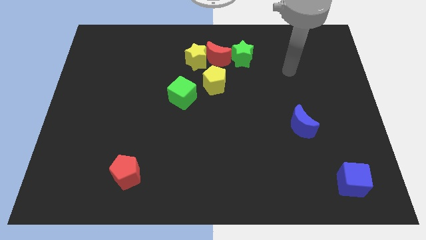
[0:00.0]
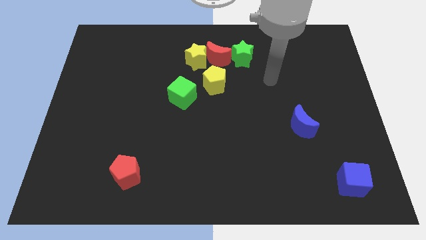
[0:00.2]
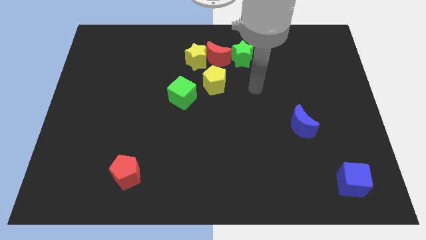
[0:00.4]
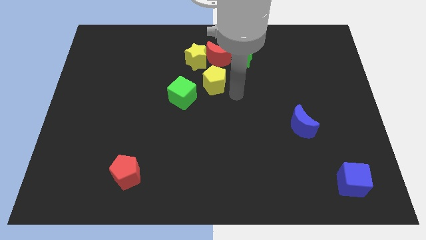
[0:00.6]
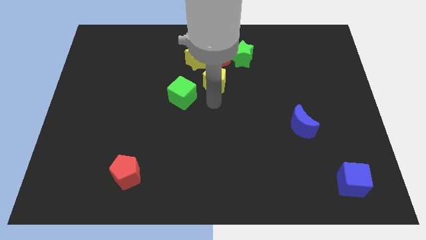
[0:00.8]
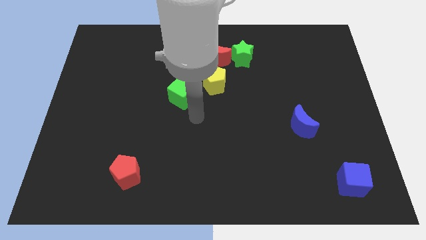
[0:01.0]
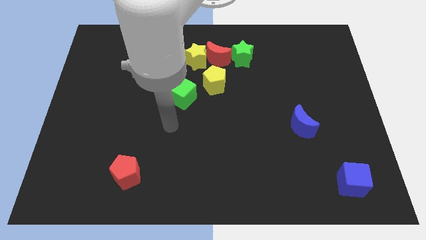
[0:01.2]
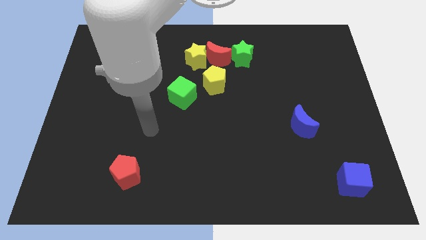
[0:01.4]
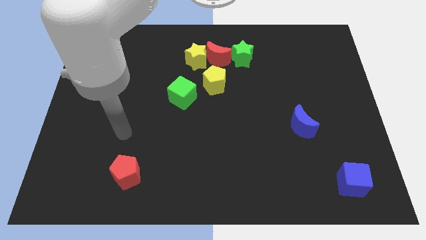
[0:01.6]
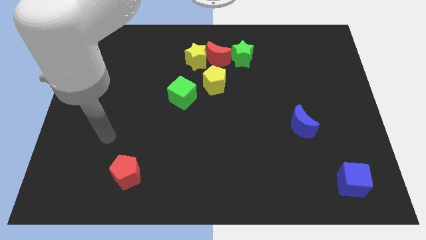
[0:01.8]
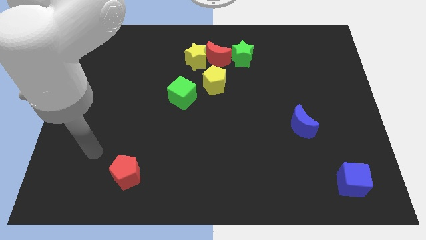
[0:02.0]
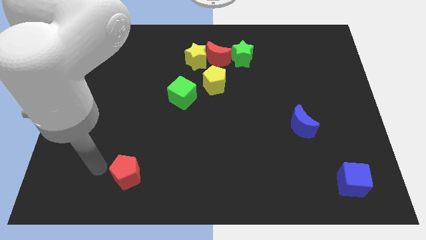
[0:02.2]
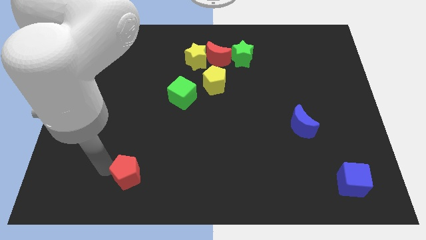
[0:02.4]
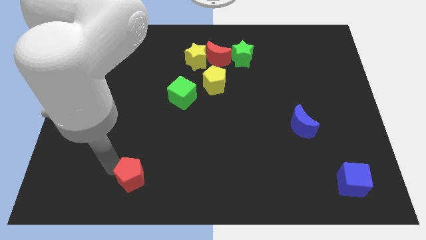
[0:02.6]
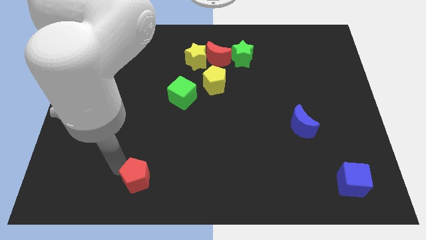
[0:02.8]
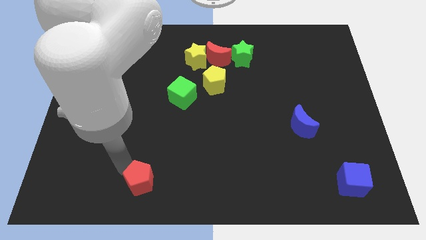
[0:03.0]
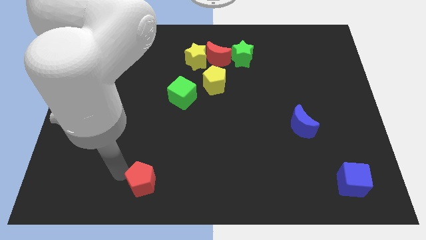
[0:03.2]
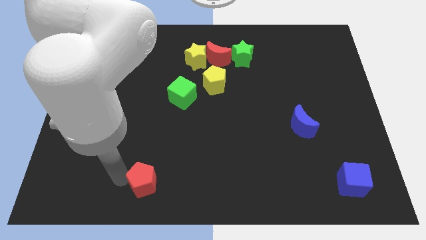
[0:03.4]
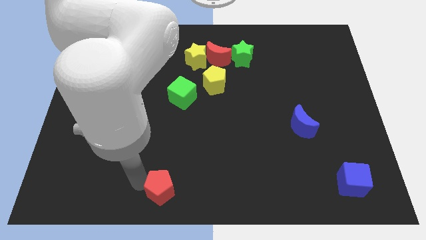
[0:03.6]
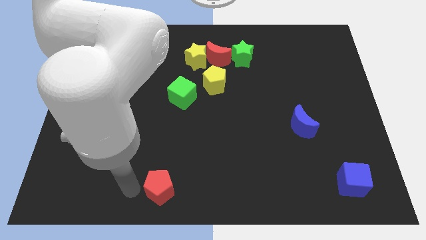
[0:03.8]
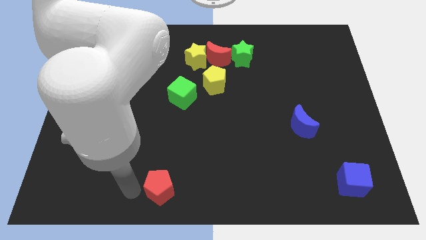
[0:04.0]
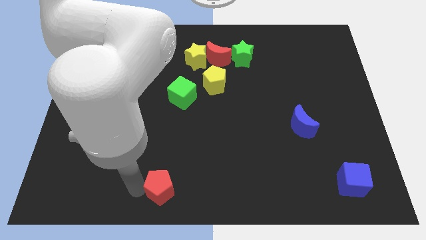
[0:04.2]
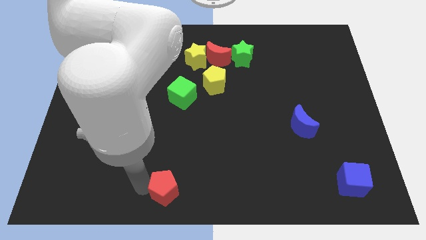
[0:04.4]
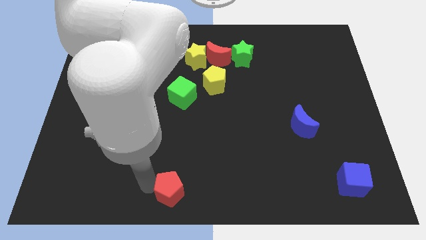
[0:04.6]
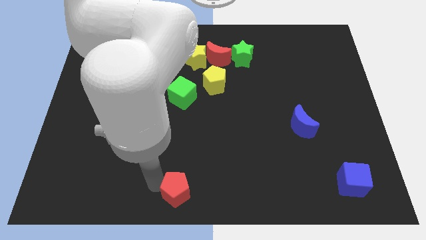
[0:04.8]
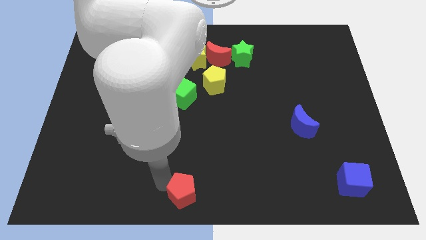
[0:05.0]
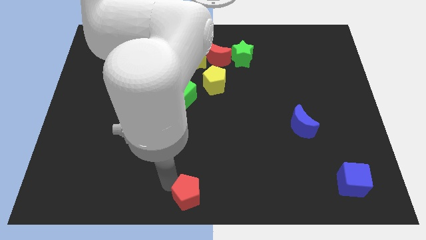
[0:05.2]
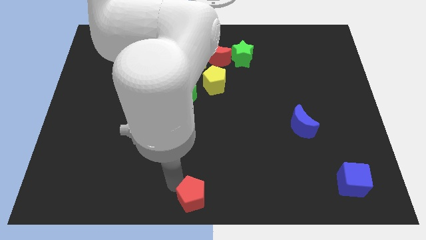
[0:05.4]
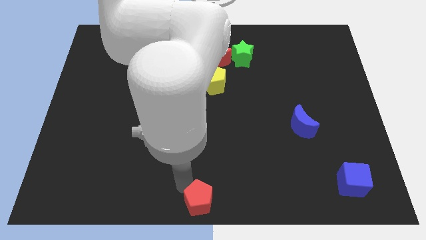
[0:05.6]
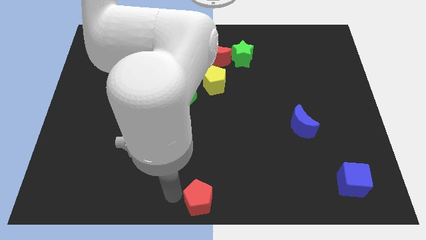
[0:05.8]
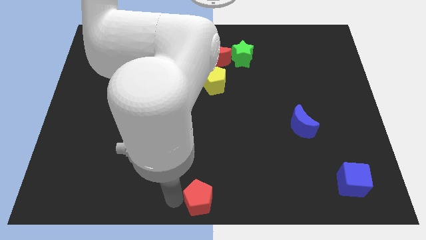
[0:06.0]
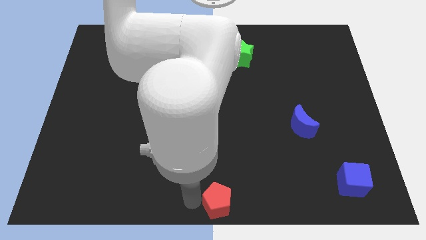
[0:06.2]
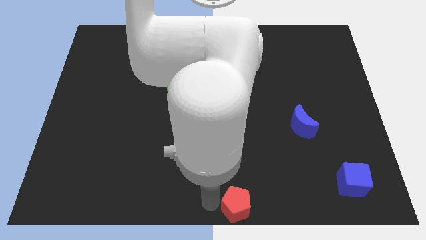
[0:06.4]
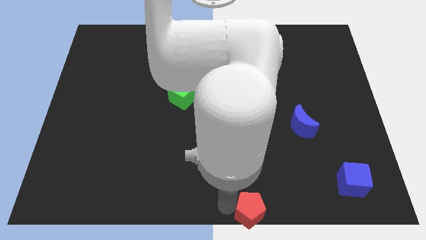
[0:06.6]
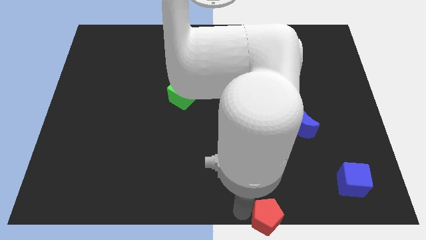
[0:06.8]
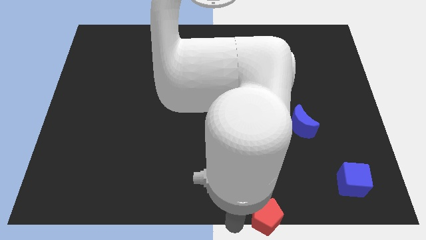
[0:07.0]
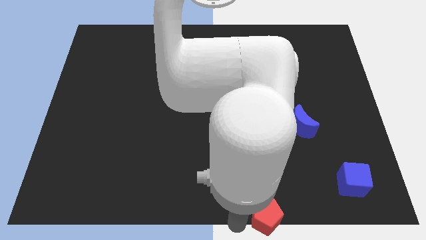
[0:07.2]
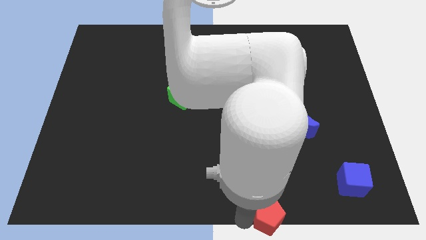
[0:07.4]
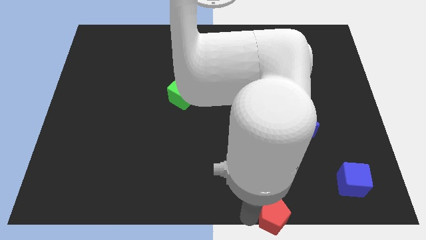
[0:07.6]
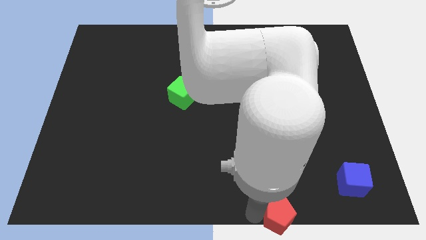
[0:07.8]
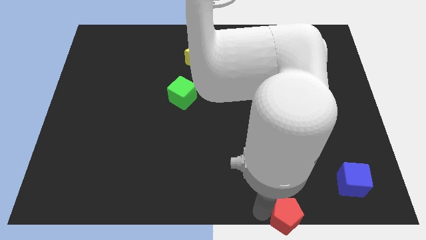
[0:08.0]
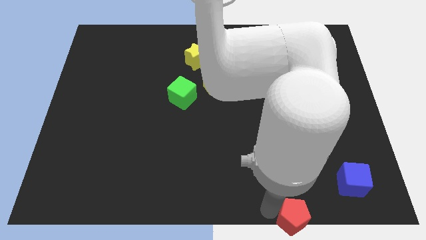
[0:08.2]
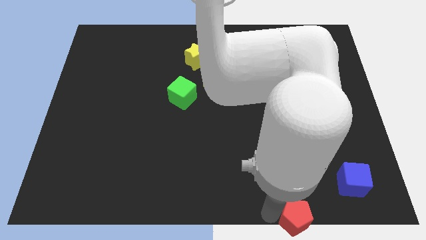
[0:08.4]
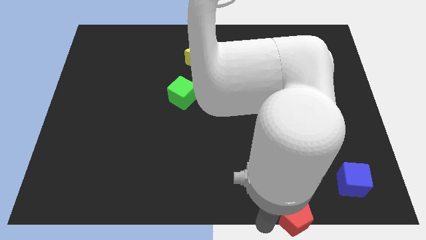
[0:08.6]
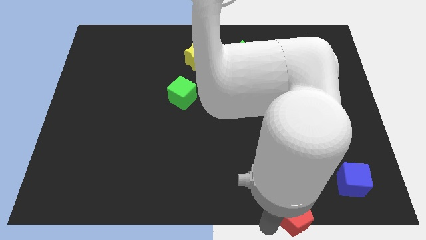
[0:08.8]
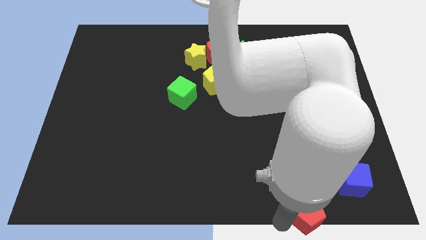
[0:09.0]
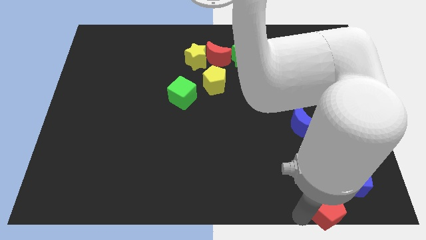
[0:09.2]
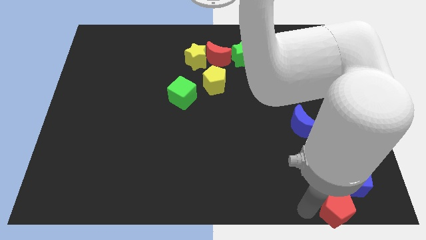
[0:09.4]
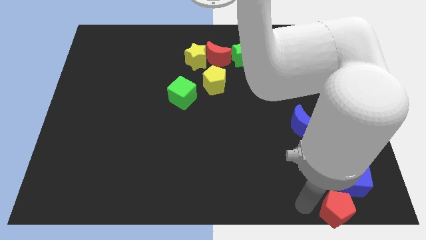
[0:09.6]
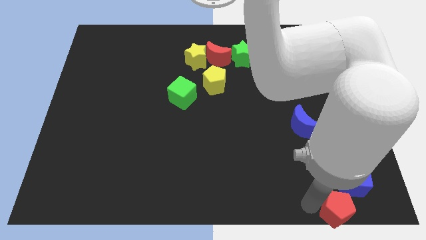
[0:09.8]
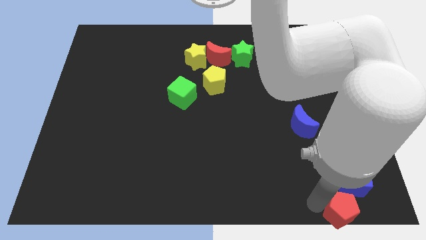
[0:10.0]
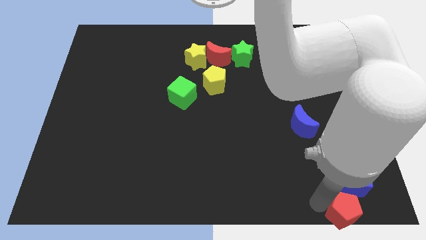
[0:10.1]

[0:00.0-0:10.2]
push the red pentagon to the bottom right corner

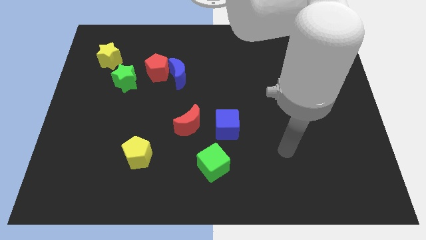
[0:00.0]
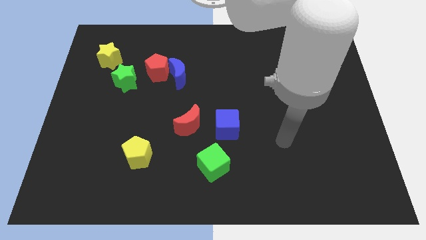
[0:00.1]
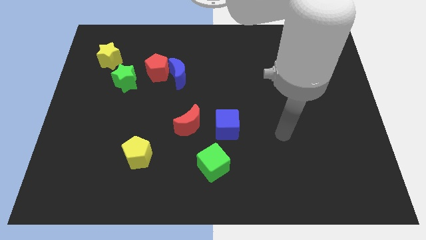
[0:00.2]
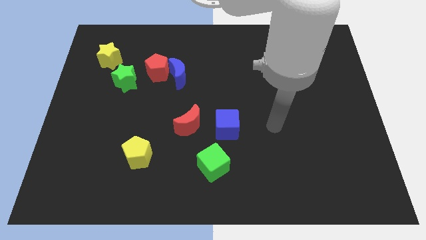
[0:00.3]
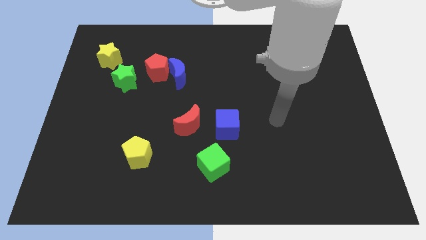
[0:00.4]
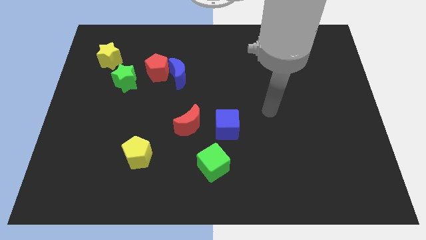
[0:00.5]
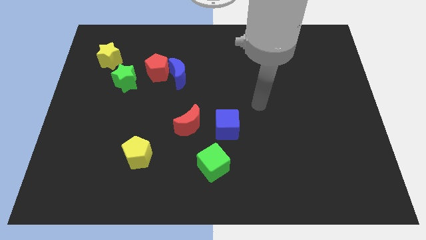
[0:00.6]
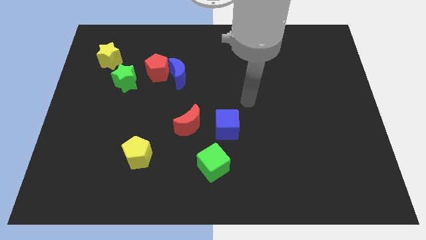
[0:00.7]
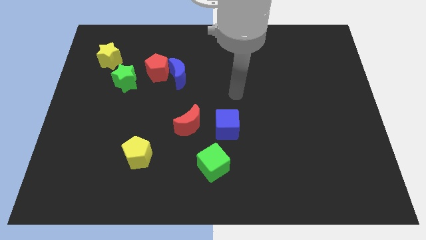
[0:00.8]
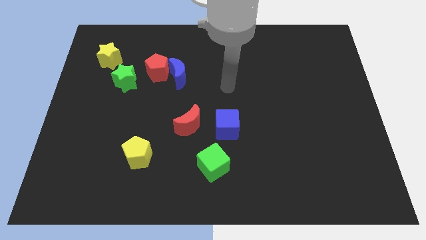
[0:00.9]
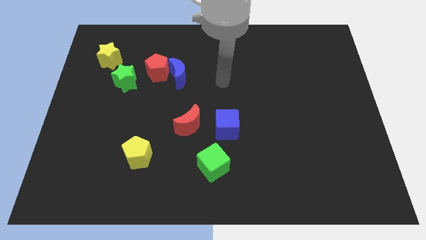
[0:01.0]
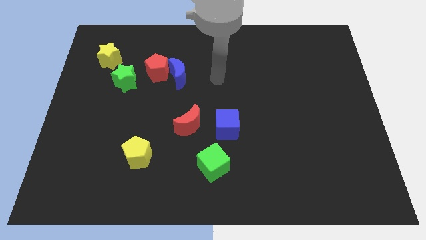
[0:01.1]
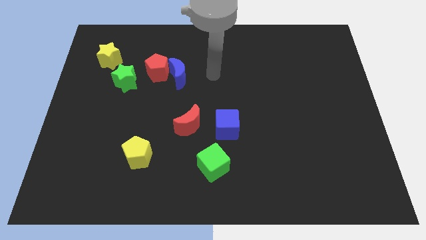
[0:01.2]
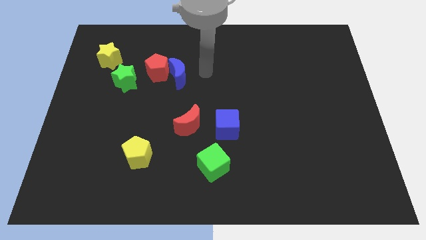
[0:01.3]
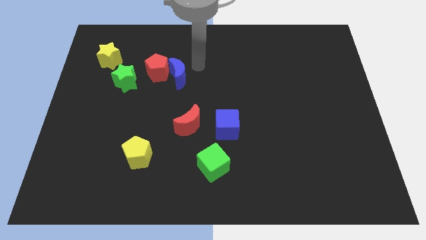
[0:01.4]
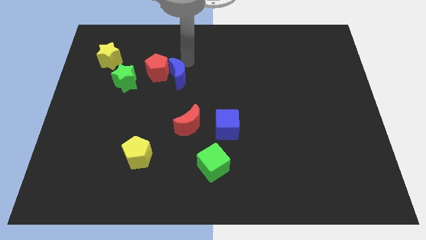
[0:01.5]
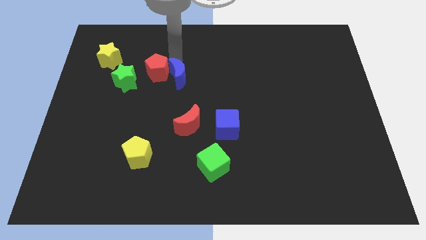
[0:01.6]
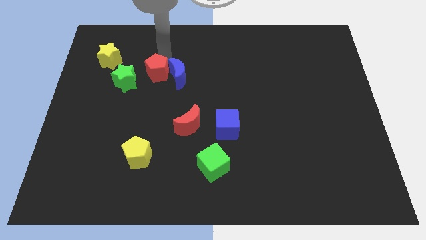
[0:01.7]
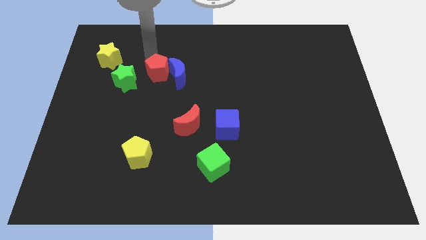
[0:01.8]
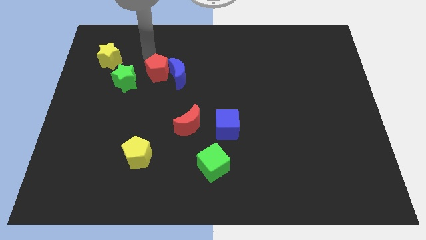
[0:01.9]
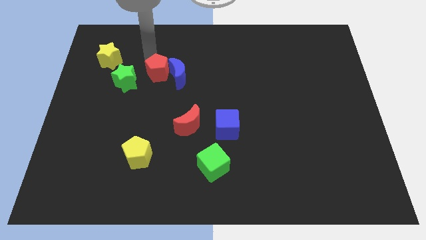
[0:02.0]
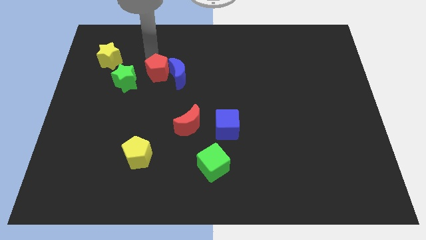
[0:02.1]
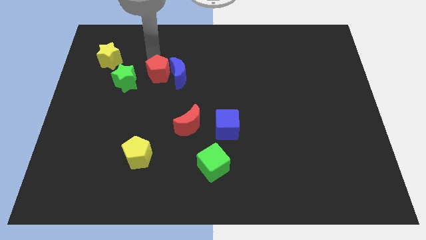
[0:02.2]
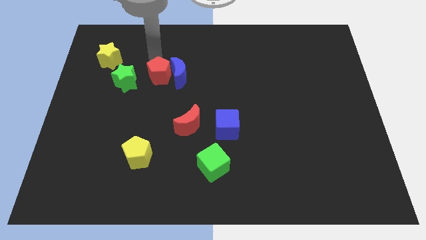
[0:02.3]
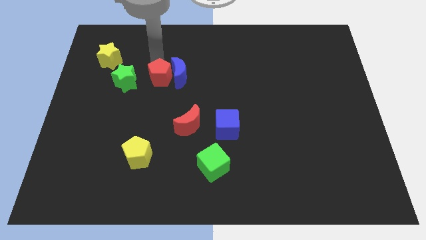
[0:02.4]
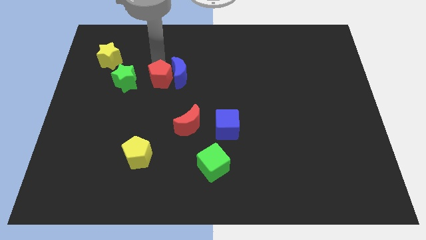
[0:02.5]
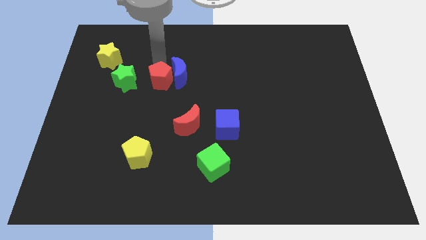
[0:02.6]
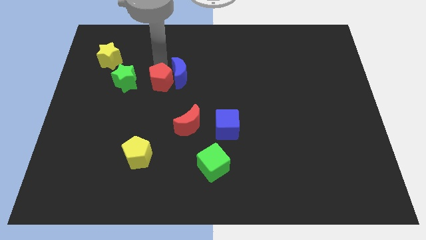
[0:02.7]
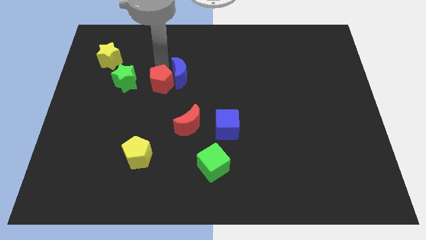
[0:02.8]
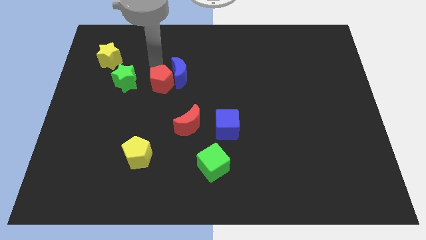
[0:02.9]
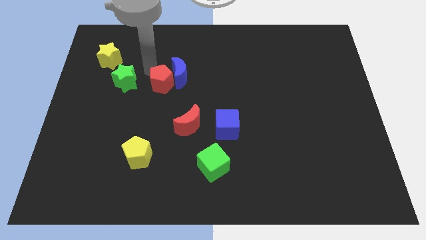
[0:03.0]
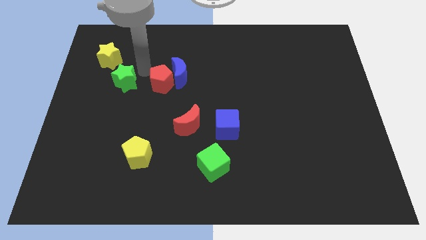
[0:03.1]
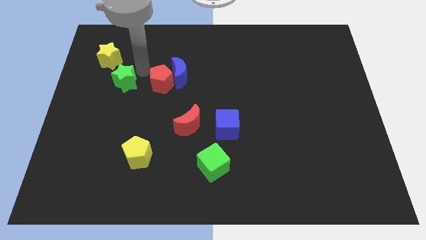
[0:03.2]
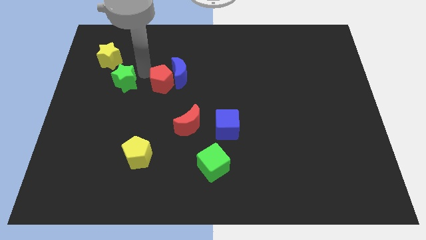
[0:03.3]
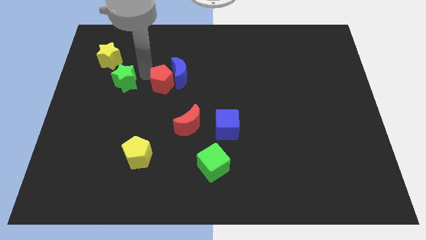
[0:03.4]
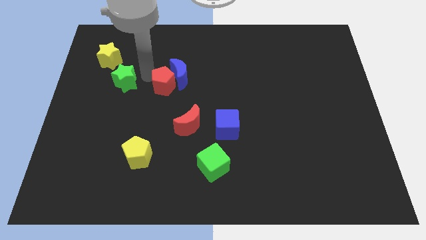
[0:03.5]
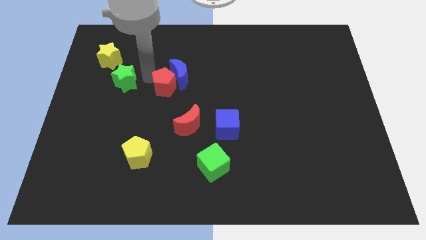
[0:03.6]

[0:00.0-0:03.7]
push the red pentagon to the center of the board
